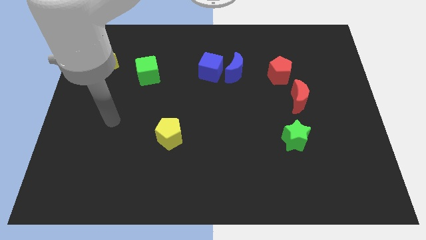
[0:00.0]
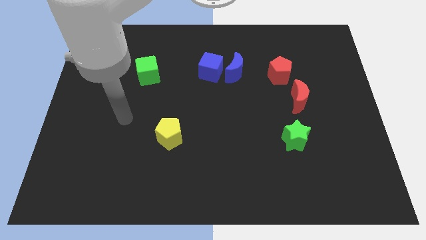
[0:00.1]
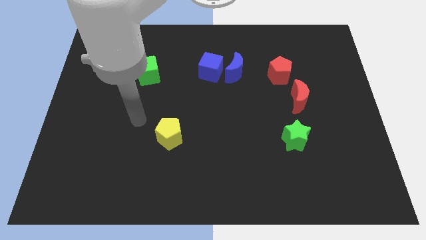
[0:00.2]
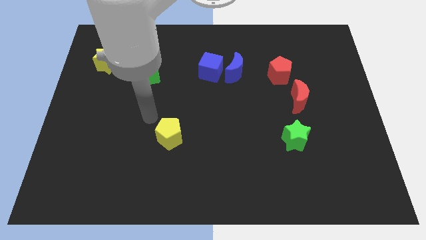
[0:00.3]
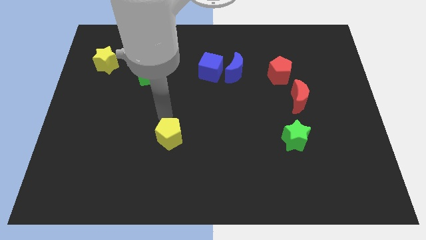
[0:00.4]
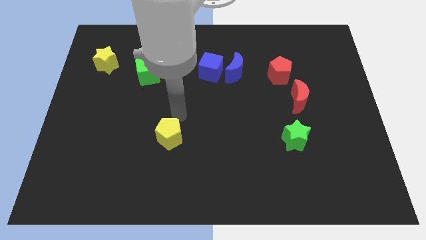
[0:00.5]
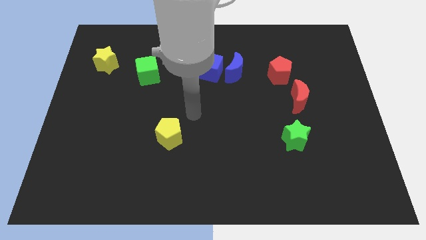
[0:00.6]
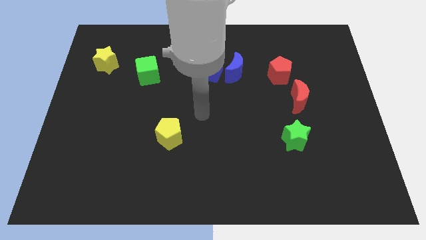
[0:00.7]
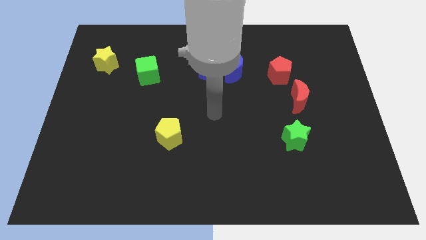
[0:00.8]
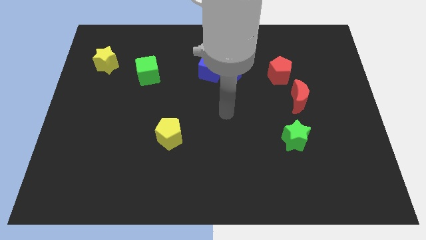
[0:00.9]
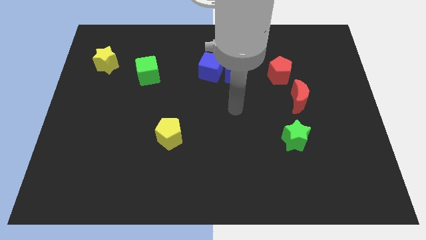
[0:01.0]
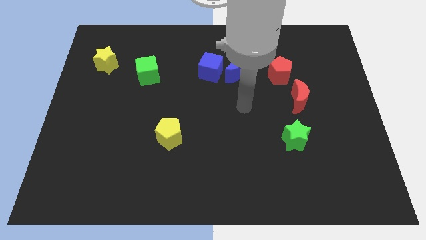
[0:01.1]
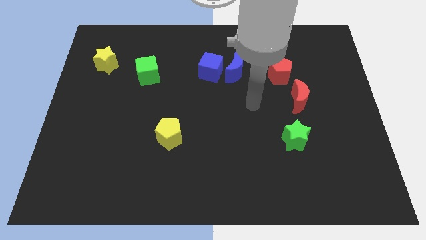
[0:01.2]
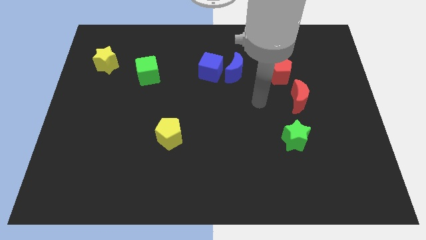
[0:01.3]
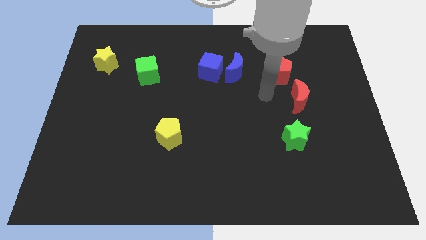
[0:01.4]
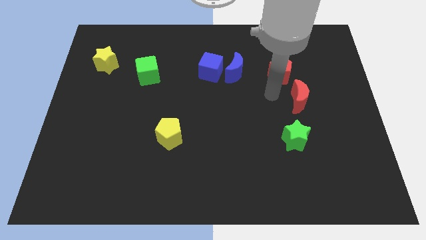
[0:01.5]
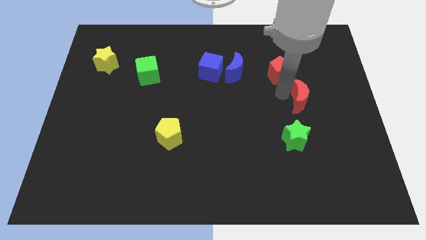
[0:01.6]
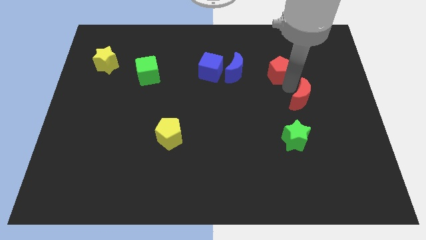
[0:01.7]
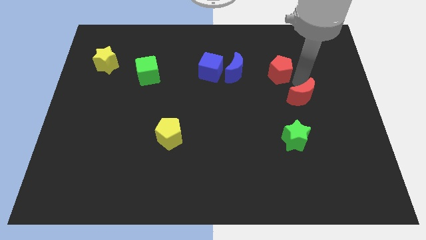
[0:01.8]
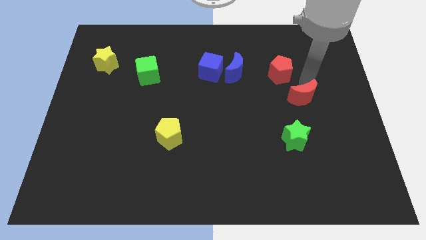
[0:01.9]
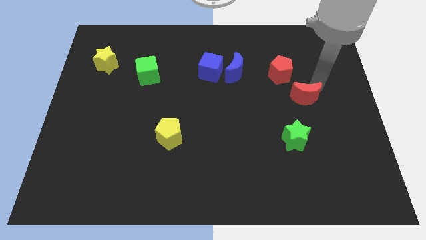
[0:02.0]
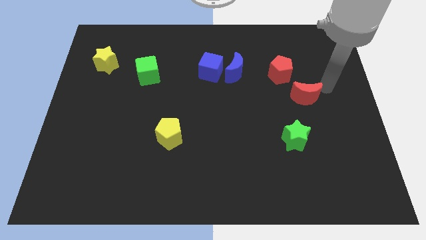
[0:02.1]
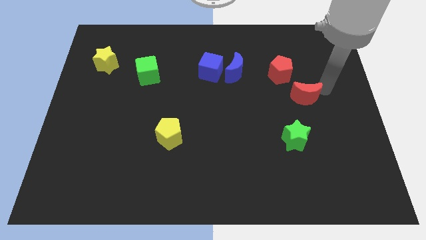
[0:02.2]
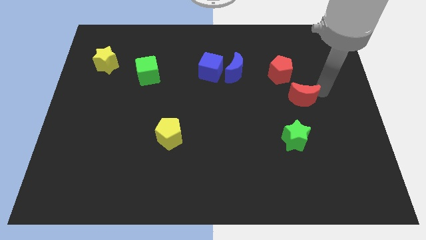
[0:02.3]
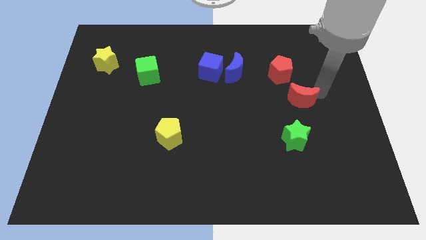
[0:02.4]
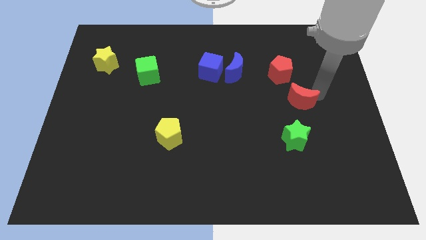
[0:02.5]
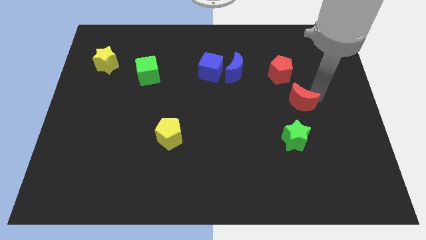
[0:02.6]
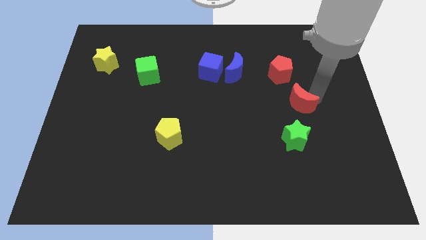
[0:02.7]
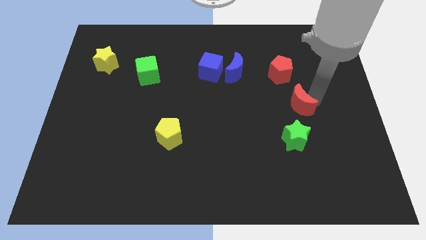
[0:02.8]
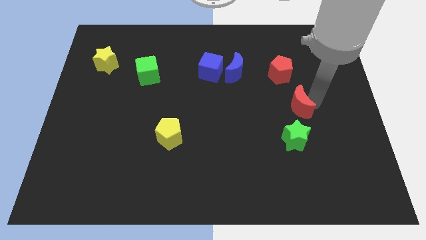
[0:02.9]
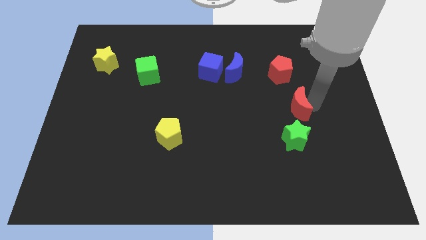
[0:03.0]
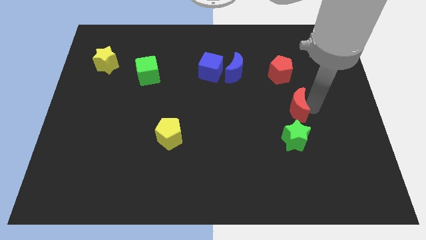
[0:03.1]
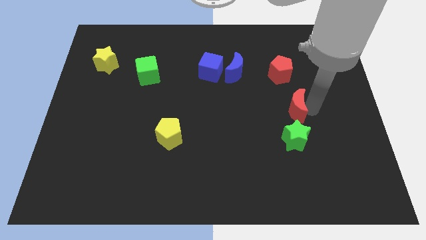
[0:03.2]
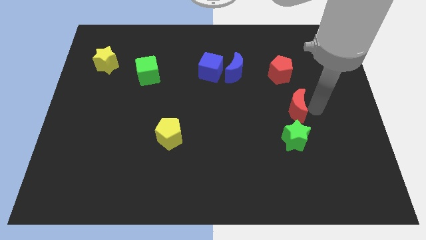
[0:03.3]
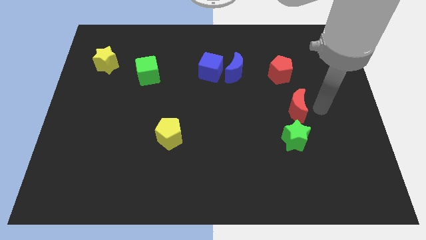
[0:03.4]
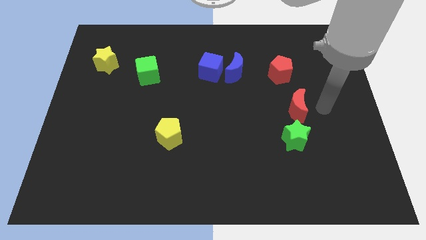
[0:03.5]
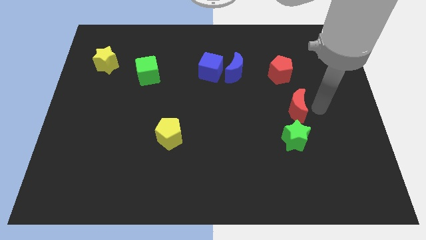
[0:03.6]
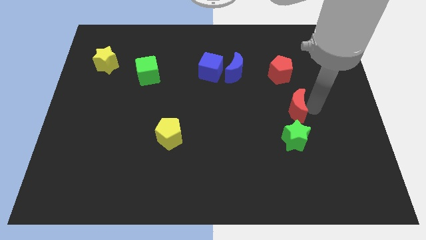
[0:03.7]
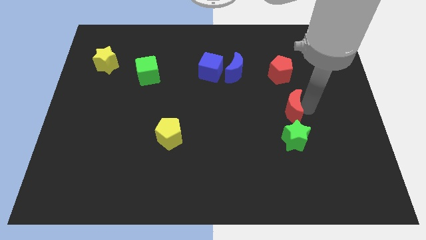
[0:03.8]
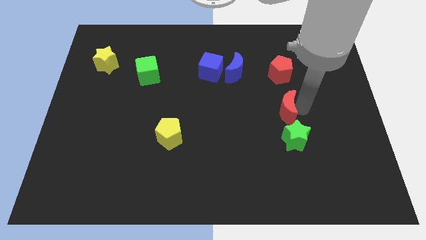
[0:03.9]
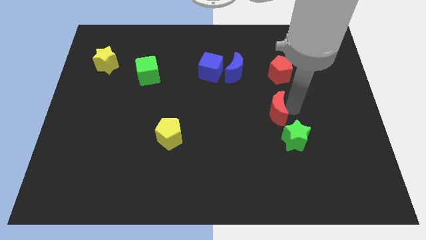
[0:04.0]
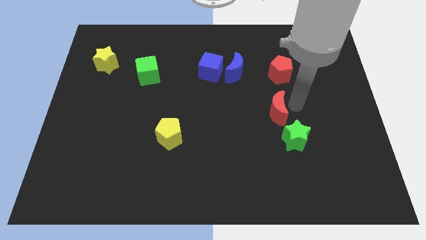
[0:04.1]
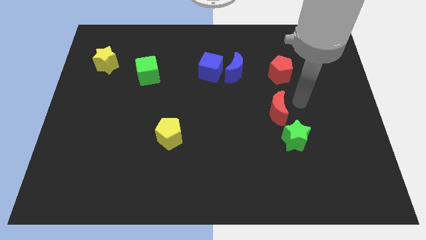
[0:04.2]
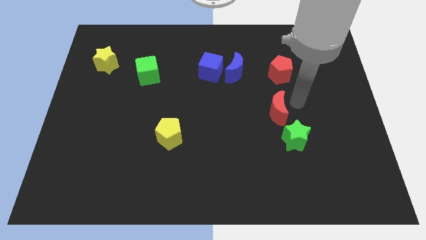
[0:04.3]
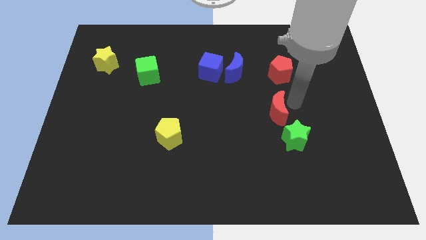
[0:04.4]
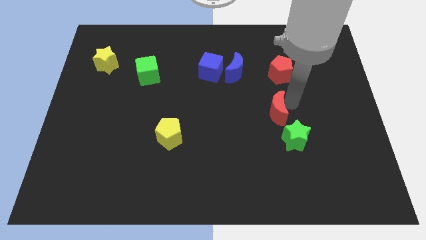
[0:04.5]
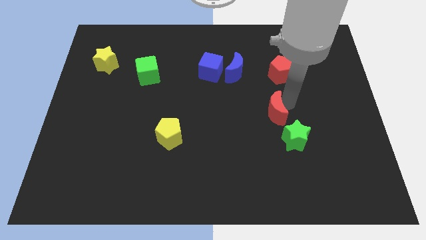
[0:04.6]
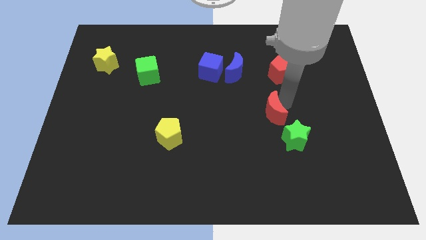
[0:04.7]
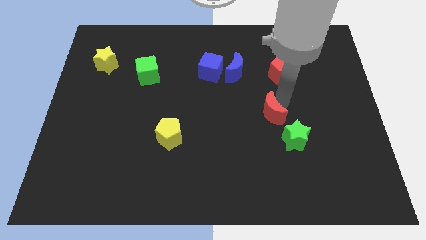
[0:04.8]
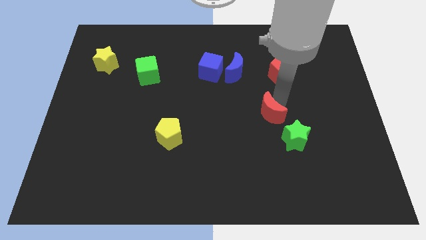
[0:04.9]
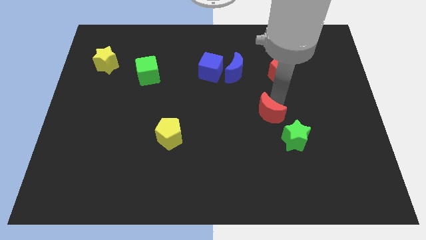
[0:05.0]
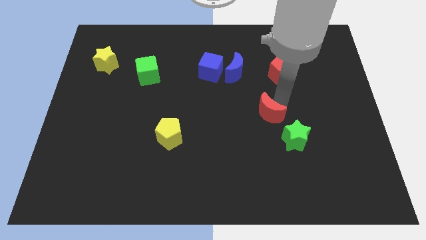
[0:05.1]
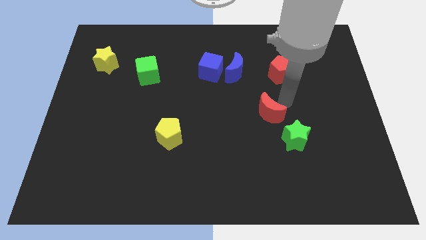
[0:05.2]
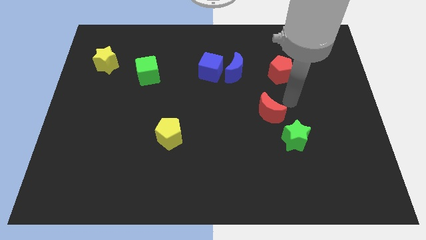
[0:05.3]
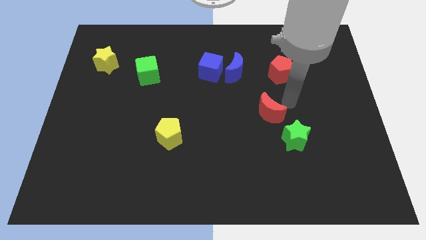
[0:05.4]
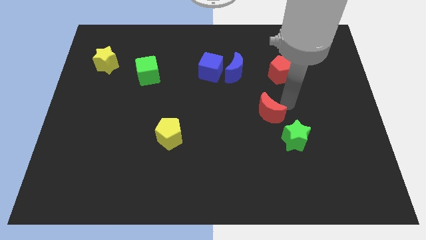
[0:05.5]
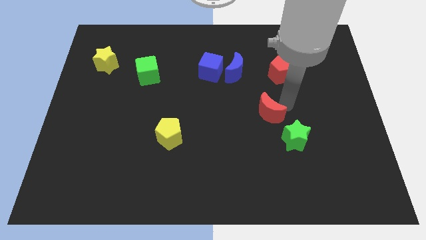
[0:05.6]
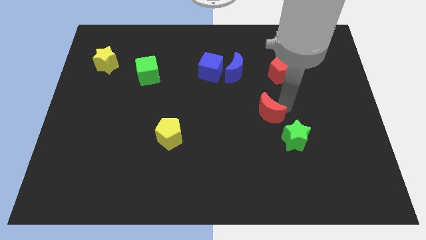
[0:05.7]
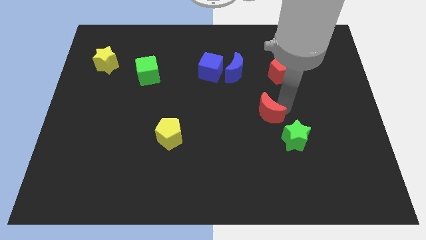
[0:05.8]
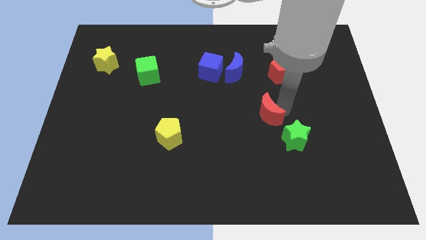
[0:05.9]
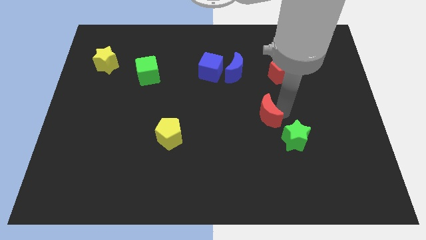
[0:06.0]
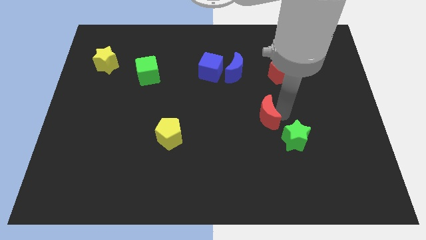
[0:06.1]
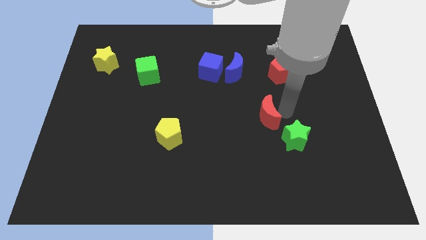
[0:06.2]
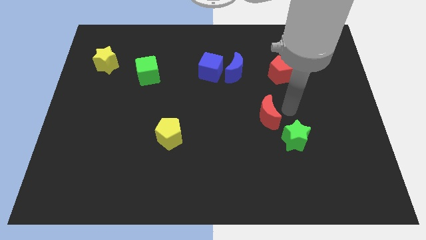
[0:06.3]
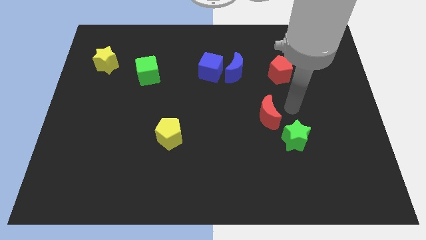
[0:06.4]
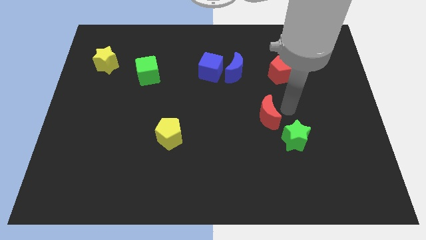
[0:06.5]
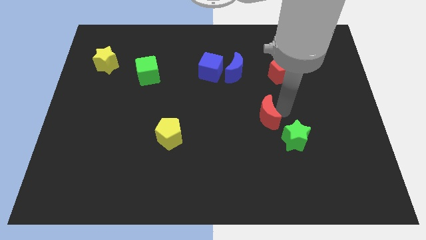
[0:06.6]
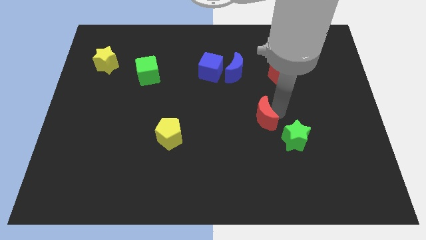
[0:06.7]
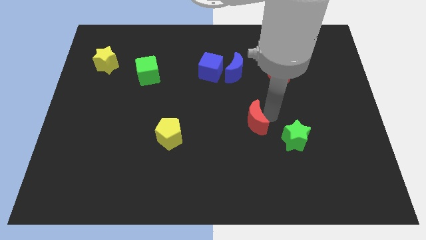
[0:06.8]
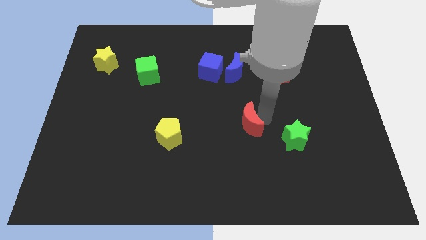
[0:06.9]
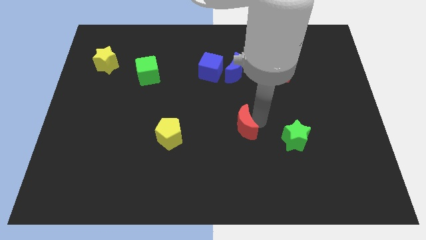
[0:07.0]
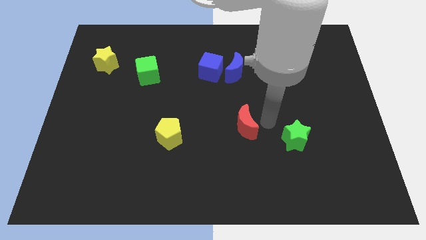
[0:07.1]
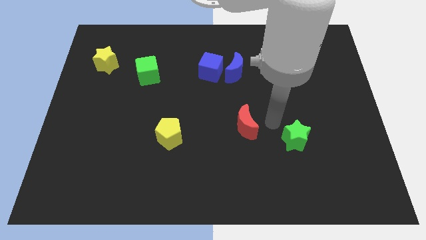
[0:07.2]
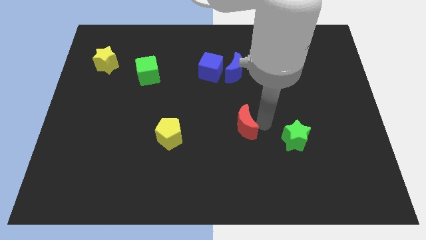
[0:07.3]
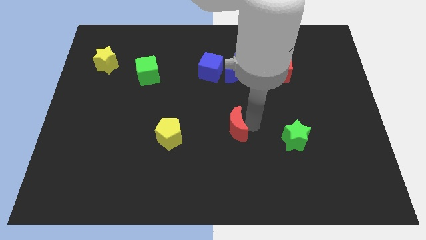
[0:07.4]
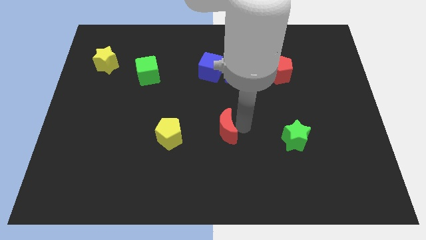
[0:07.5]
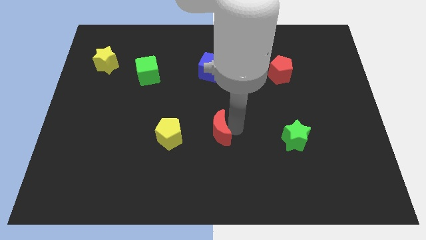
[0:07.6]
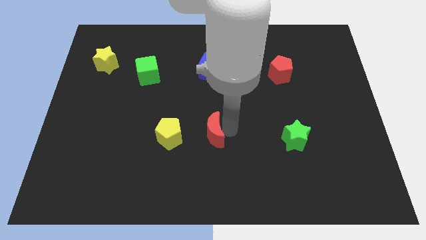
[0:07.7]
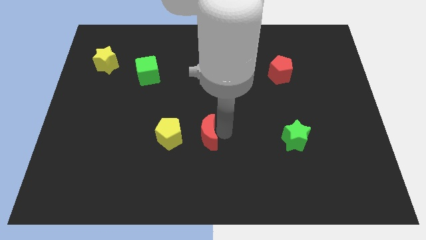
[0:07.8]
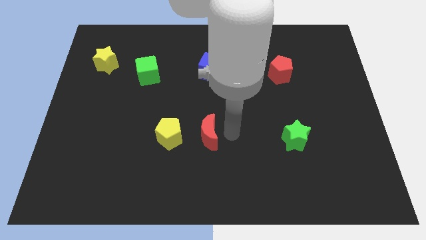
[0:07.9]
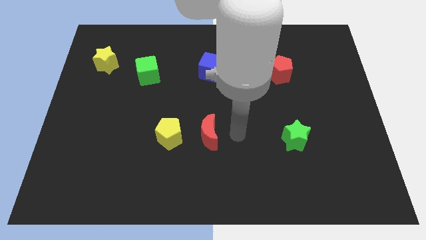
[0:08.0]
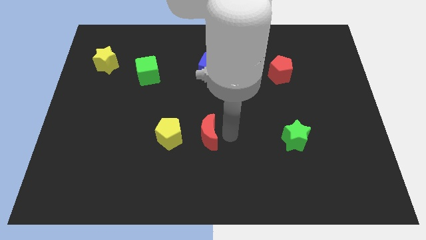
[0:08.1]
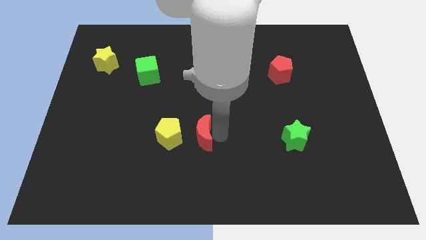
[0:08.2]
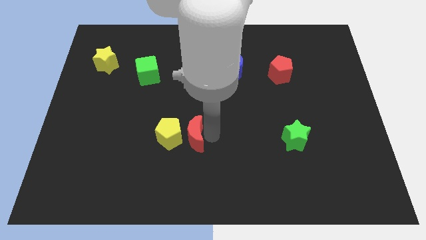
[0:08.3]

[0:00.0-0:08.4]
slide the red moon towards the yellow pentagon

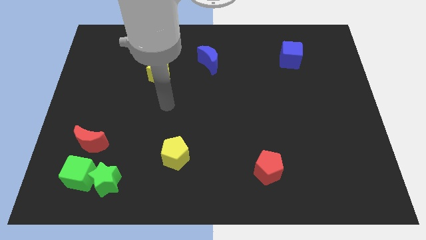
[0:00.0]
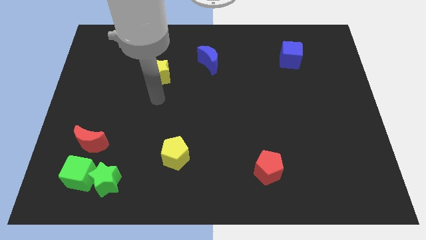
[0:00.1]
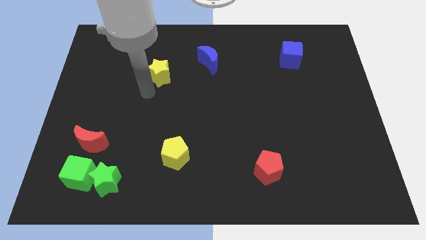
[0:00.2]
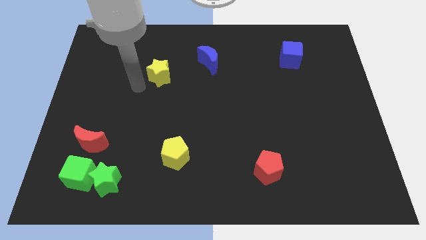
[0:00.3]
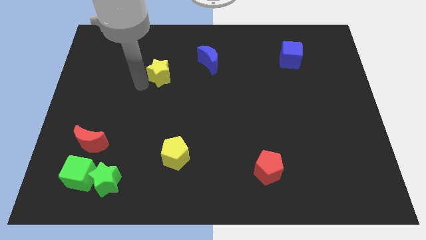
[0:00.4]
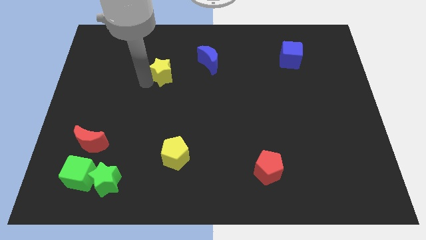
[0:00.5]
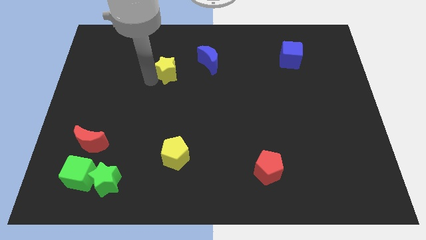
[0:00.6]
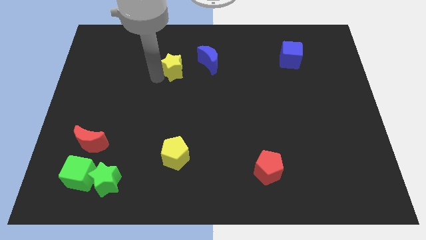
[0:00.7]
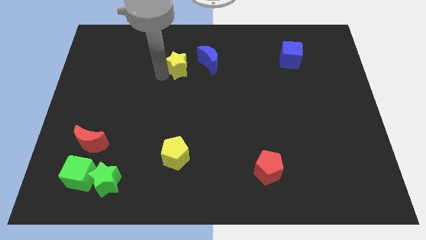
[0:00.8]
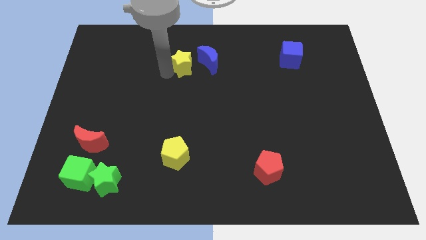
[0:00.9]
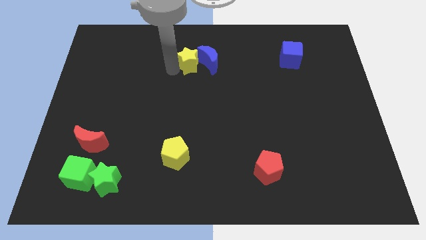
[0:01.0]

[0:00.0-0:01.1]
move the yellow star next to the blue moon
